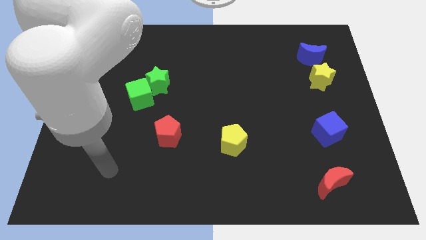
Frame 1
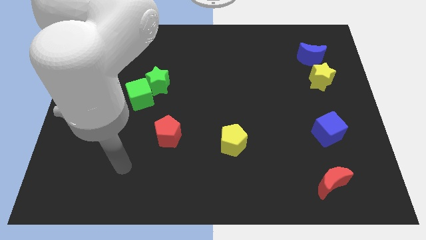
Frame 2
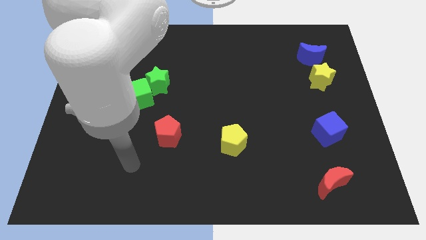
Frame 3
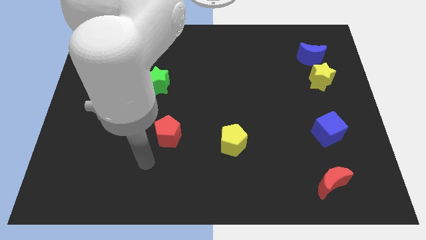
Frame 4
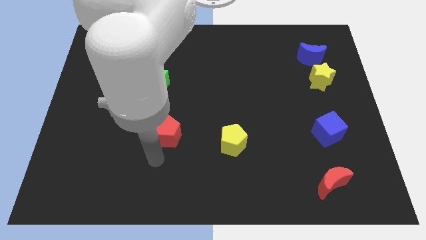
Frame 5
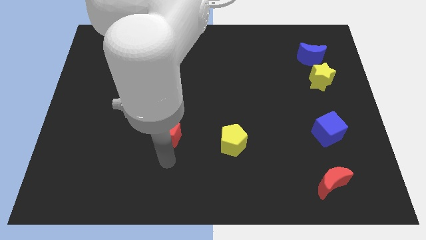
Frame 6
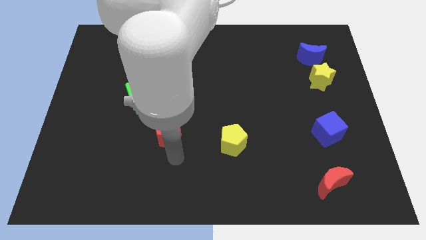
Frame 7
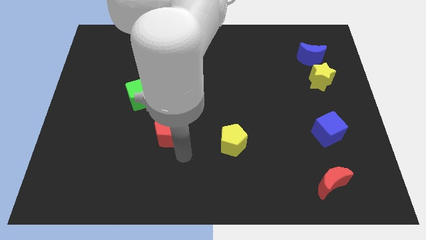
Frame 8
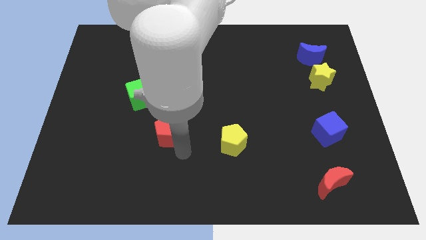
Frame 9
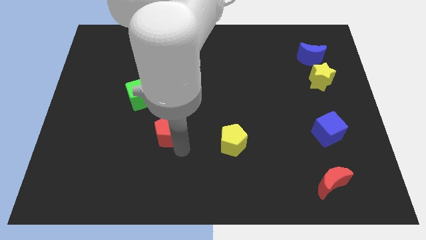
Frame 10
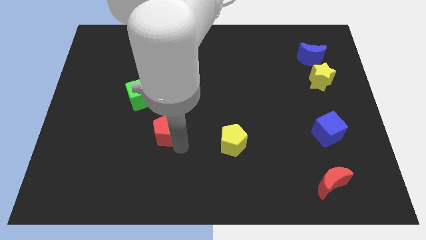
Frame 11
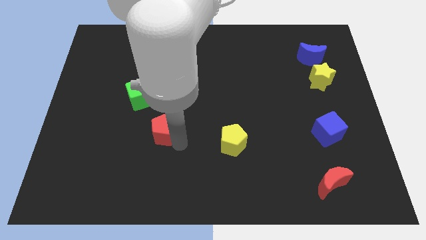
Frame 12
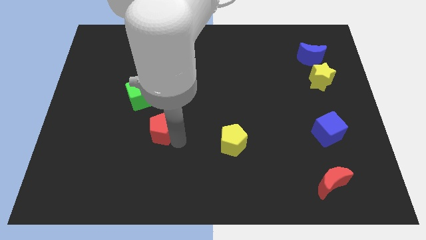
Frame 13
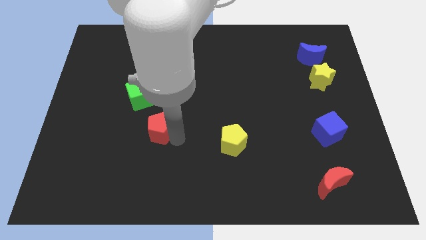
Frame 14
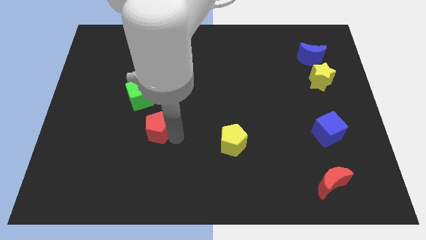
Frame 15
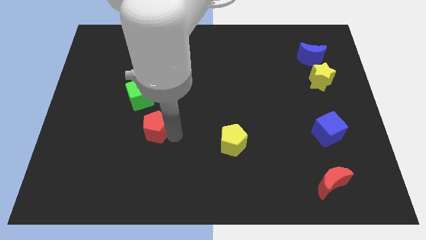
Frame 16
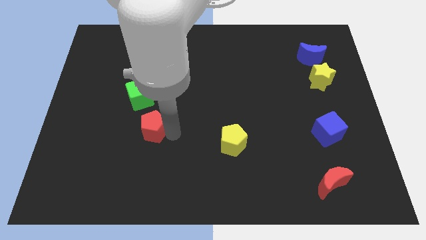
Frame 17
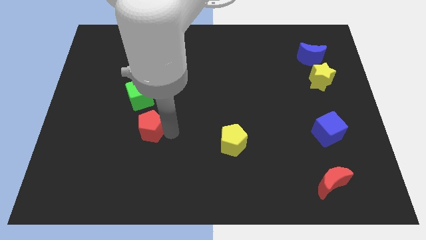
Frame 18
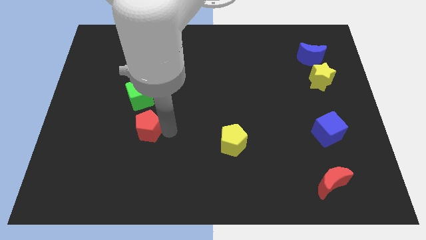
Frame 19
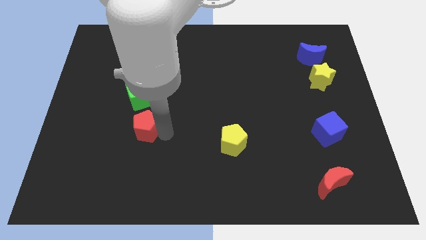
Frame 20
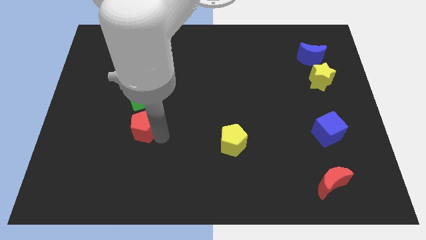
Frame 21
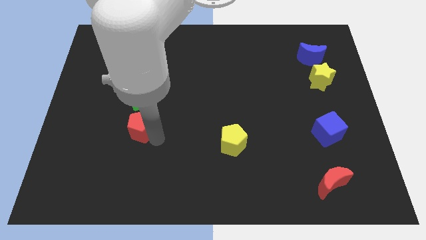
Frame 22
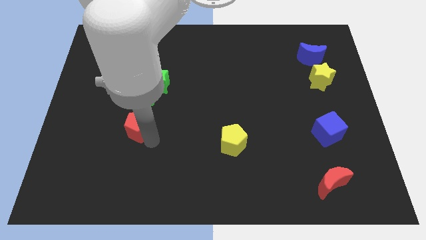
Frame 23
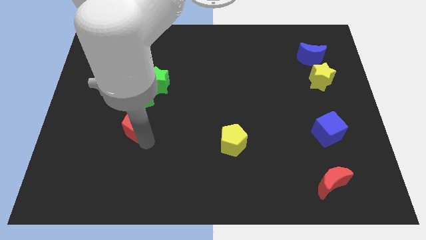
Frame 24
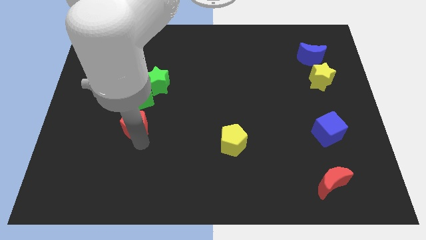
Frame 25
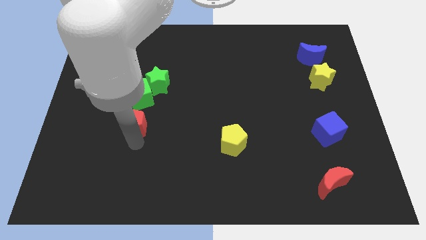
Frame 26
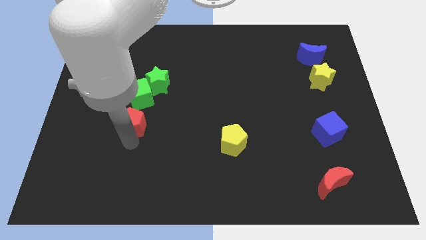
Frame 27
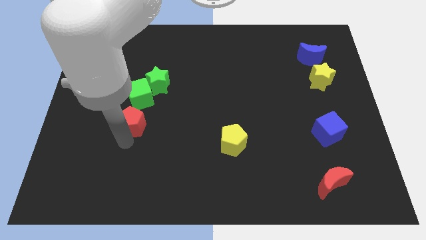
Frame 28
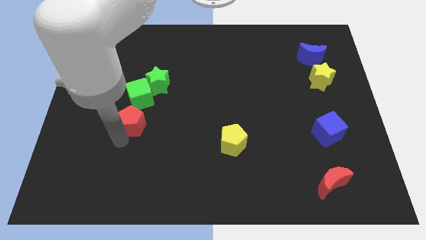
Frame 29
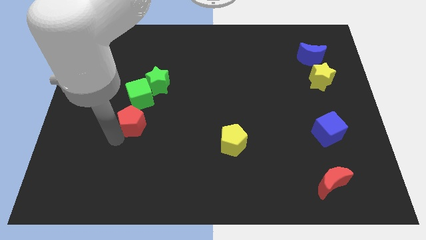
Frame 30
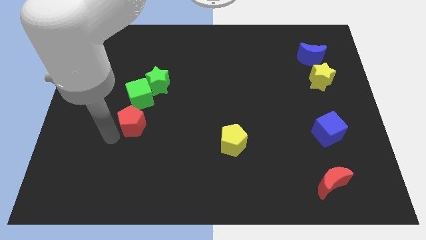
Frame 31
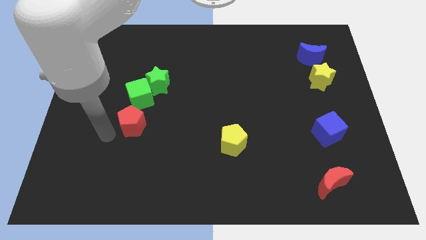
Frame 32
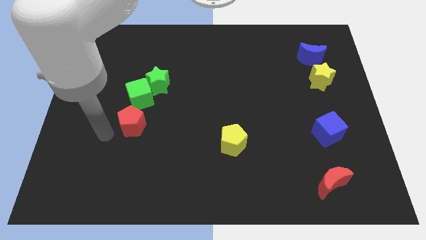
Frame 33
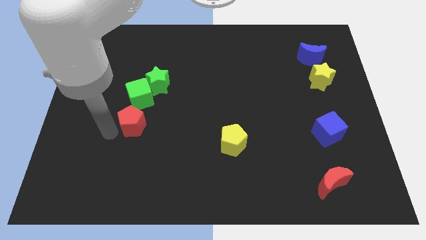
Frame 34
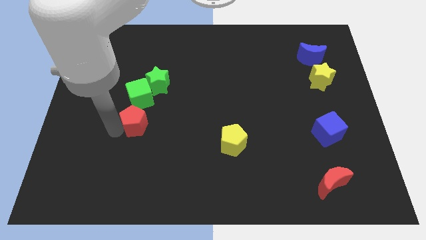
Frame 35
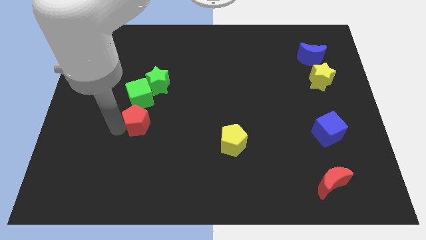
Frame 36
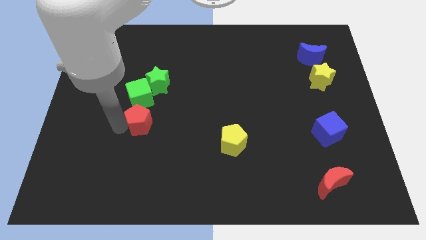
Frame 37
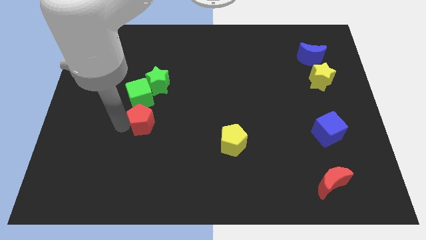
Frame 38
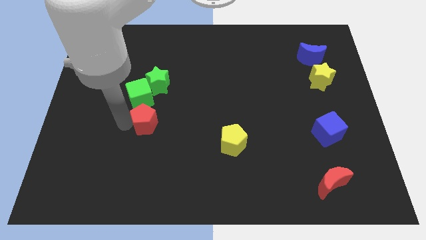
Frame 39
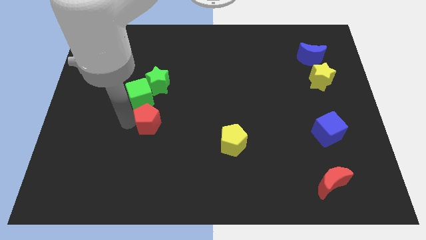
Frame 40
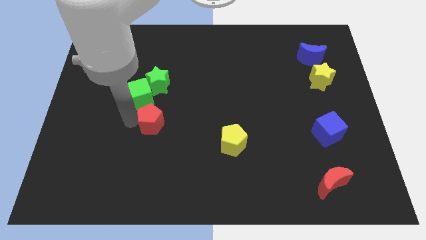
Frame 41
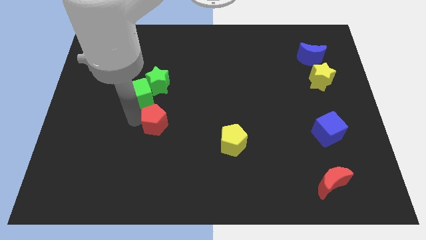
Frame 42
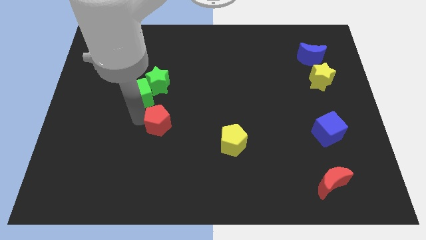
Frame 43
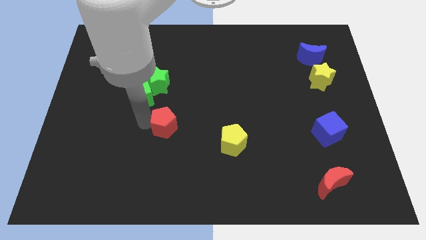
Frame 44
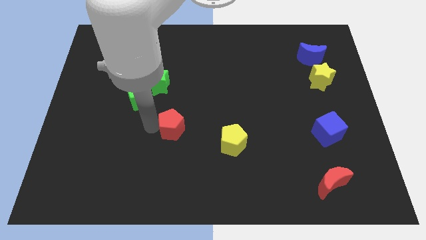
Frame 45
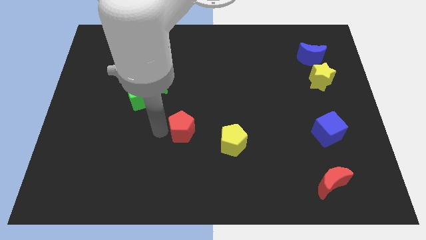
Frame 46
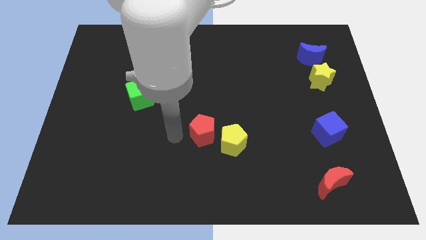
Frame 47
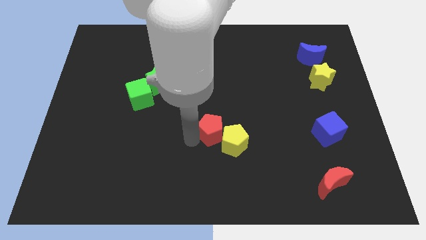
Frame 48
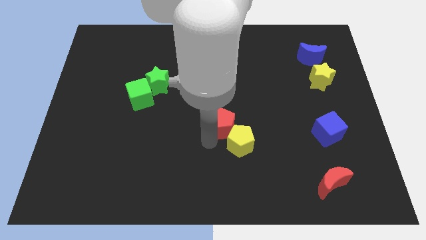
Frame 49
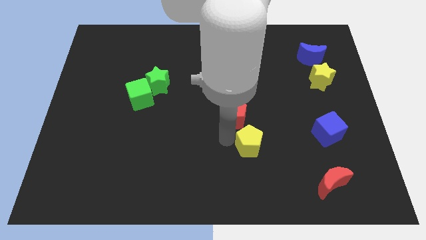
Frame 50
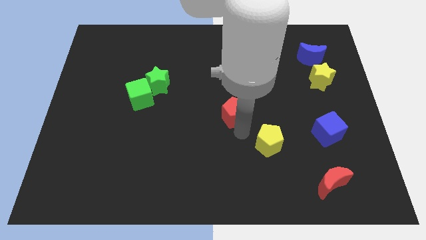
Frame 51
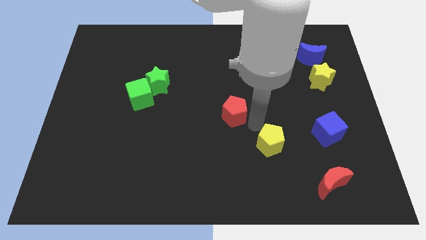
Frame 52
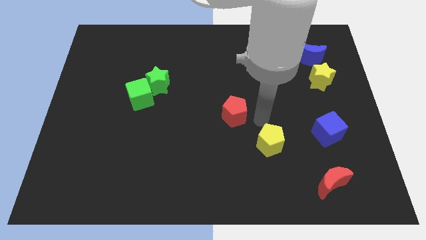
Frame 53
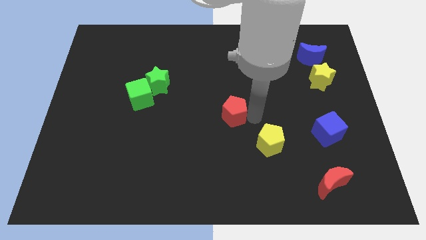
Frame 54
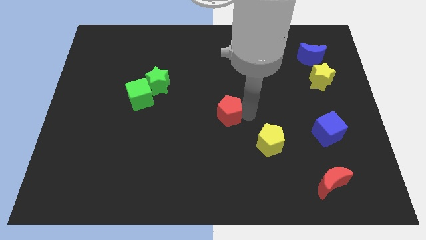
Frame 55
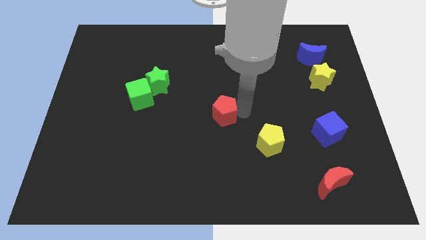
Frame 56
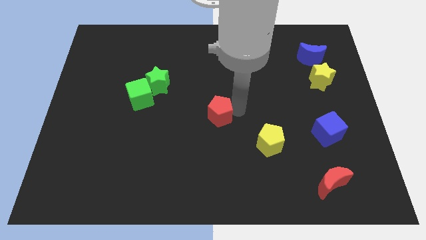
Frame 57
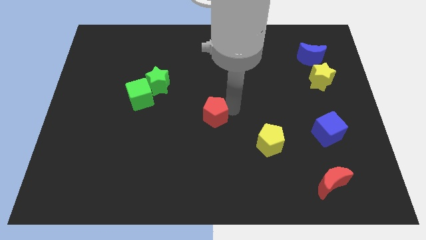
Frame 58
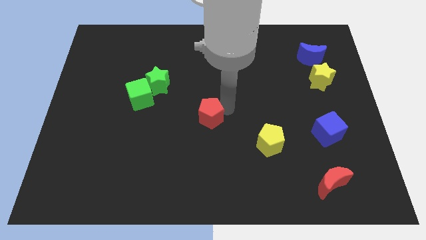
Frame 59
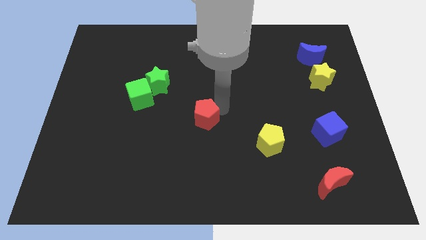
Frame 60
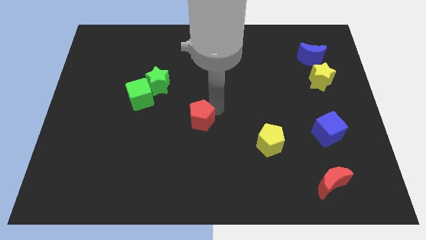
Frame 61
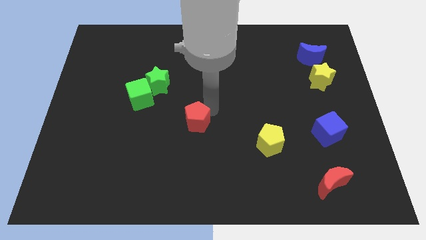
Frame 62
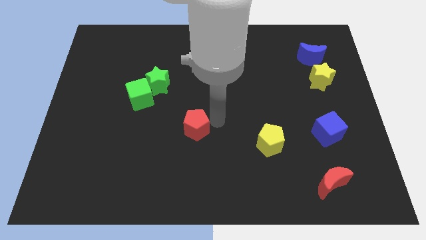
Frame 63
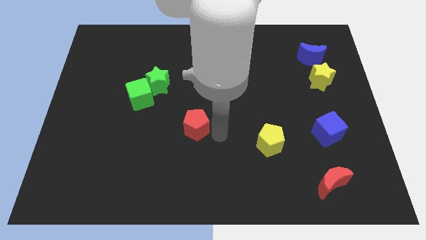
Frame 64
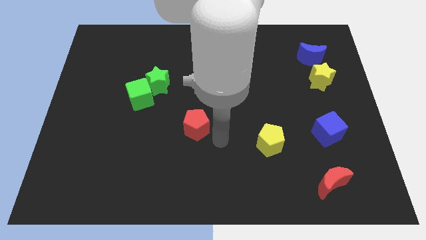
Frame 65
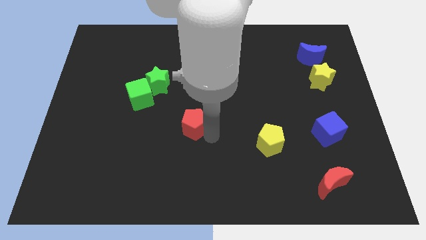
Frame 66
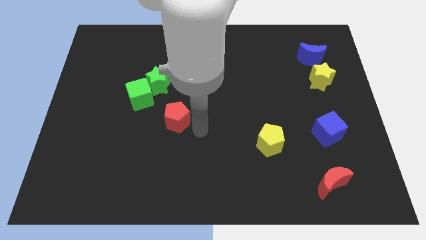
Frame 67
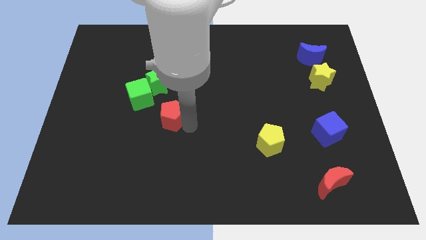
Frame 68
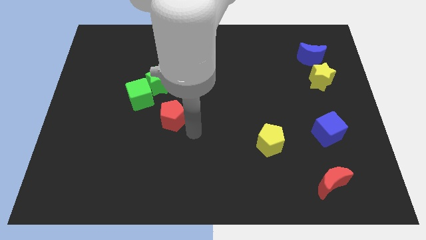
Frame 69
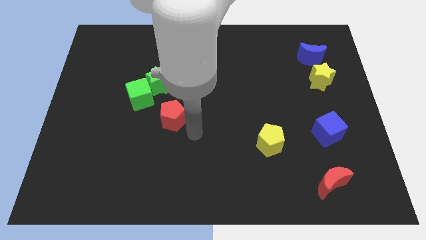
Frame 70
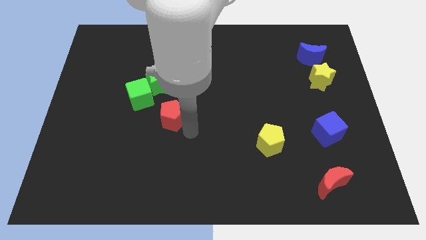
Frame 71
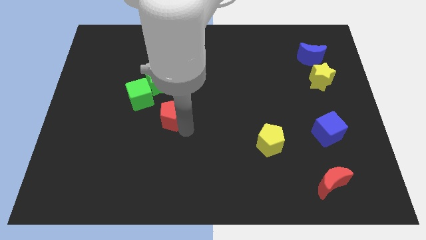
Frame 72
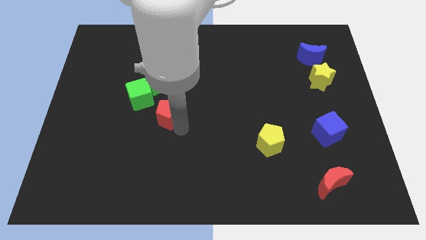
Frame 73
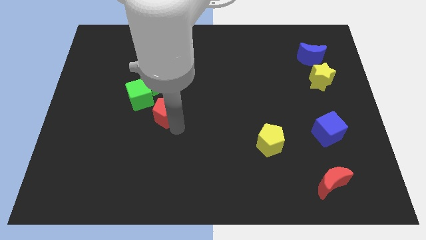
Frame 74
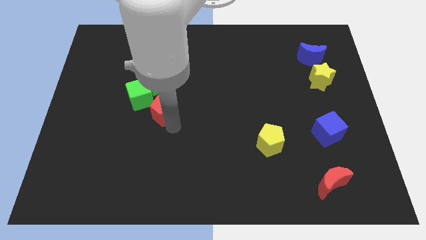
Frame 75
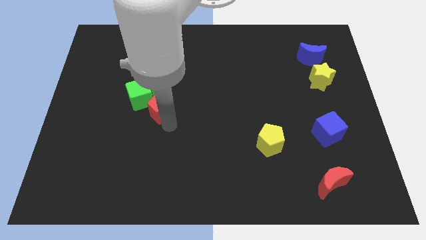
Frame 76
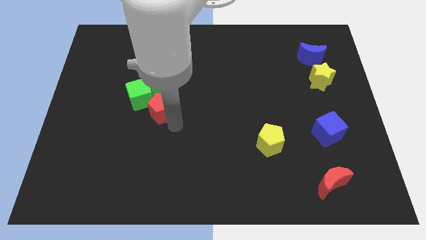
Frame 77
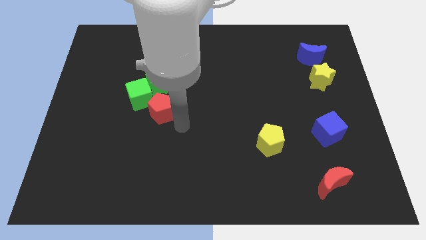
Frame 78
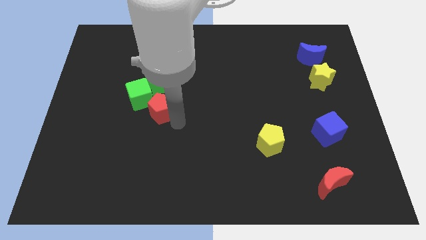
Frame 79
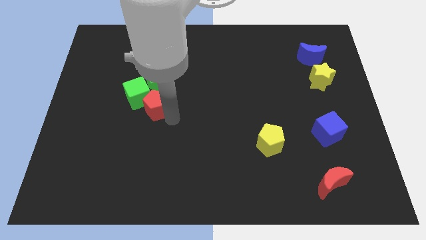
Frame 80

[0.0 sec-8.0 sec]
slide the red pentagon close to the green cube
